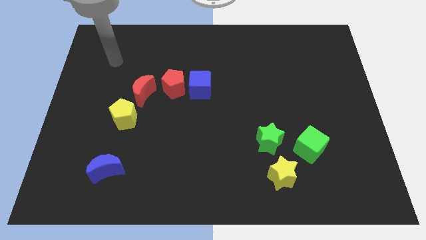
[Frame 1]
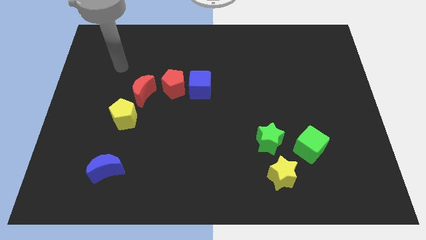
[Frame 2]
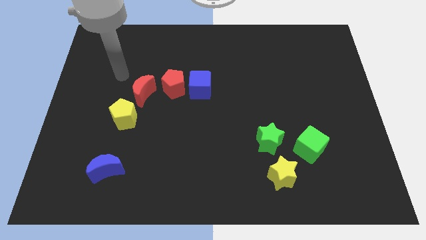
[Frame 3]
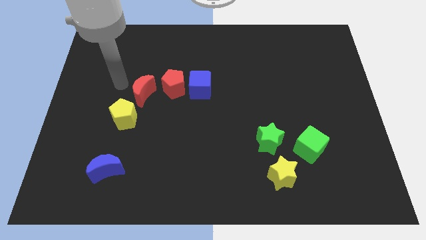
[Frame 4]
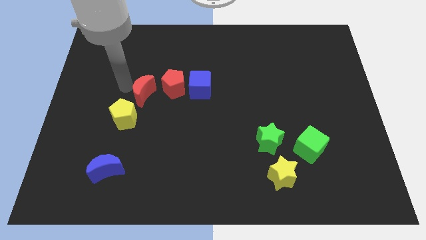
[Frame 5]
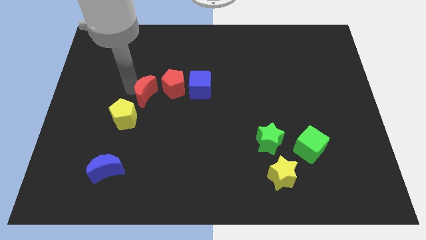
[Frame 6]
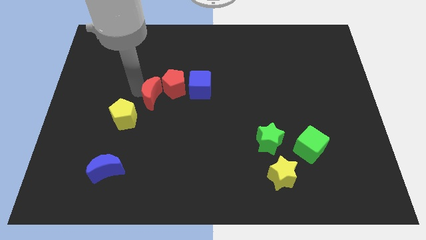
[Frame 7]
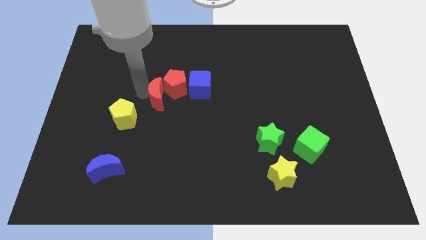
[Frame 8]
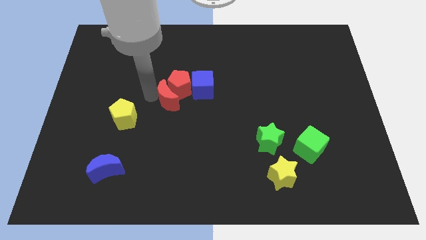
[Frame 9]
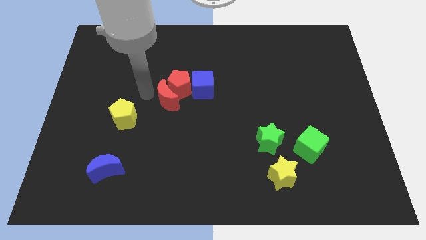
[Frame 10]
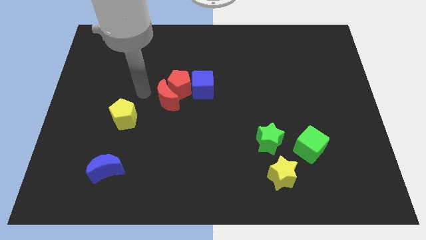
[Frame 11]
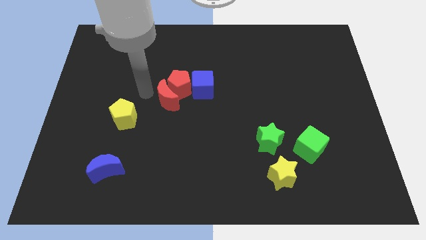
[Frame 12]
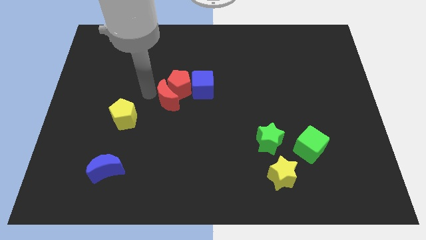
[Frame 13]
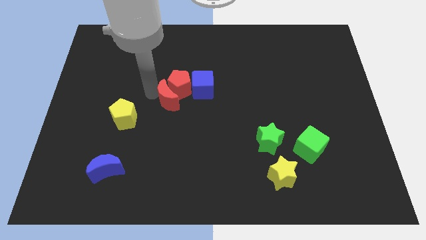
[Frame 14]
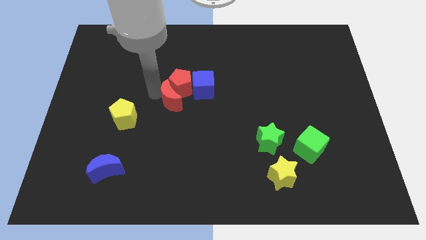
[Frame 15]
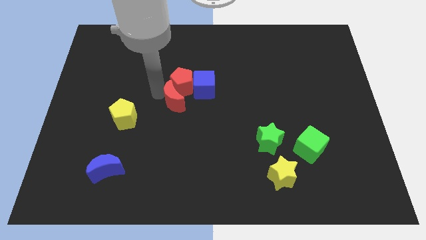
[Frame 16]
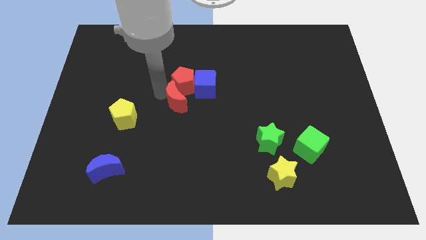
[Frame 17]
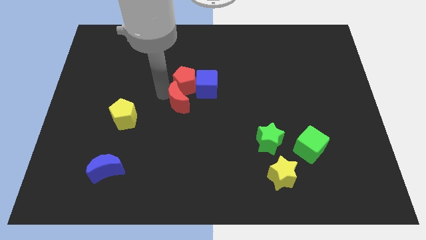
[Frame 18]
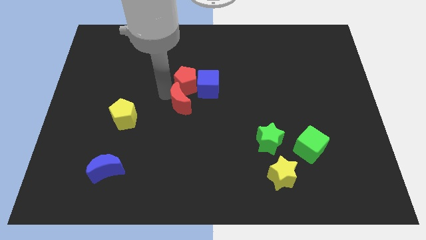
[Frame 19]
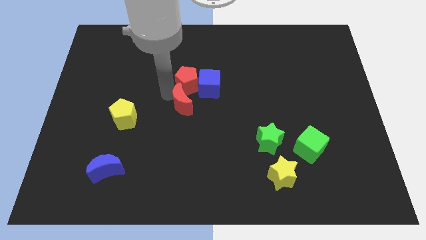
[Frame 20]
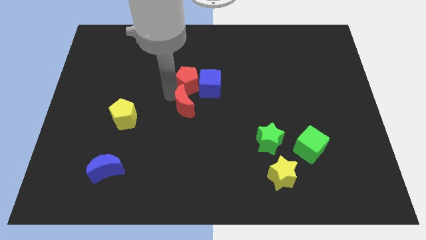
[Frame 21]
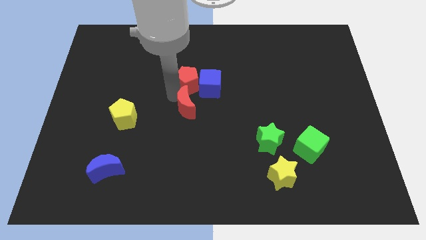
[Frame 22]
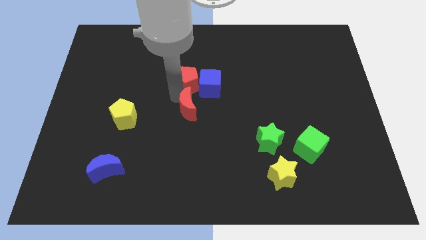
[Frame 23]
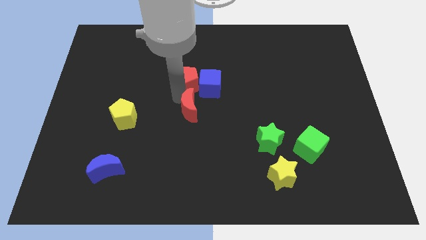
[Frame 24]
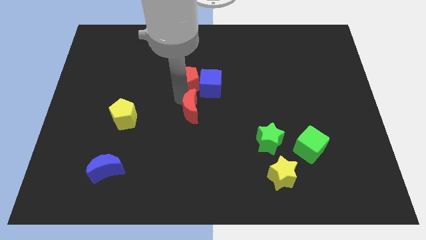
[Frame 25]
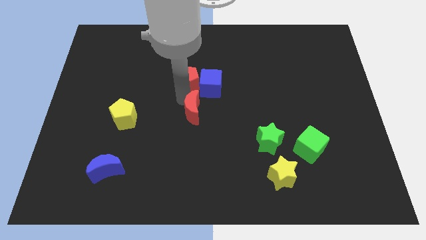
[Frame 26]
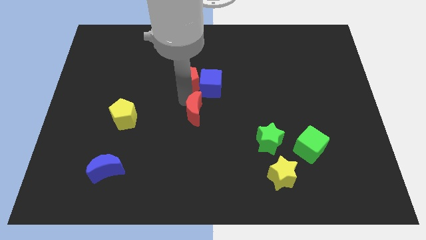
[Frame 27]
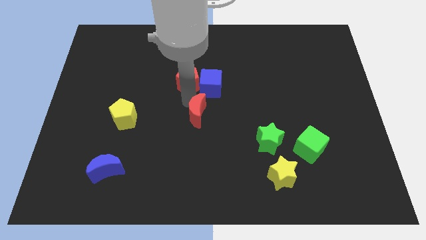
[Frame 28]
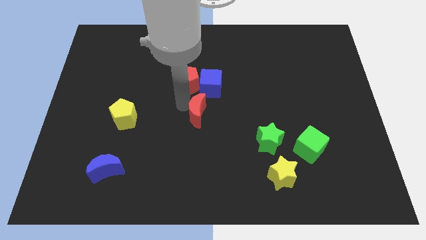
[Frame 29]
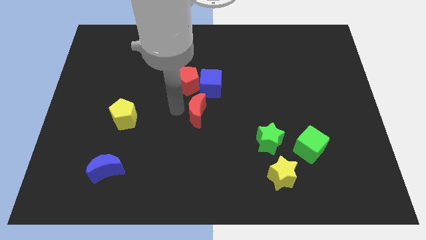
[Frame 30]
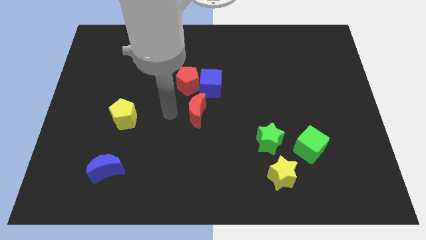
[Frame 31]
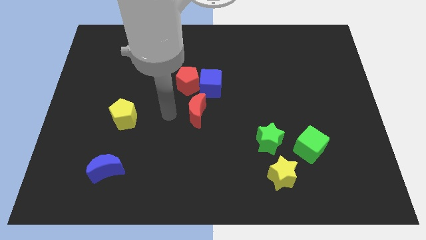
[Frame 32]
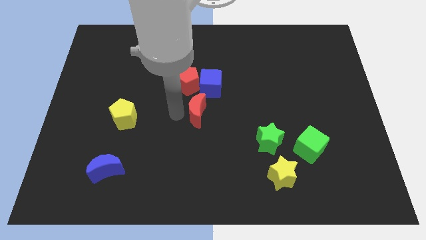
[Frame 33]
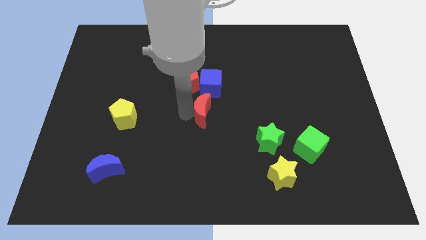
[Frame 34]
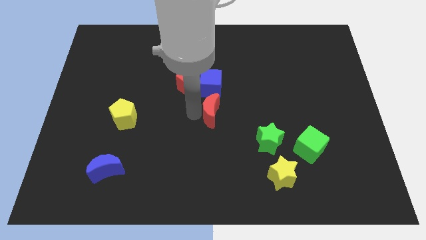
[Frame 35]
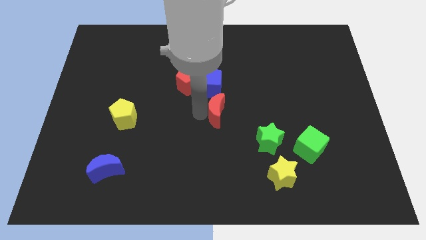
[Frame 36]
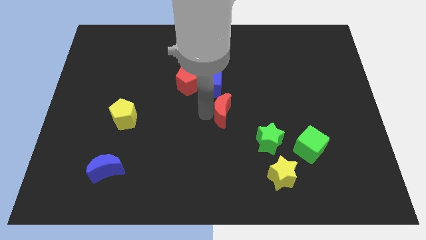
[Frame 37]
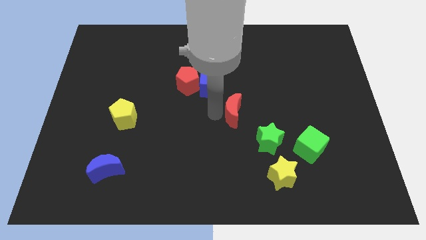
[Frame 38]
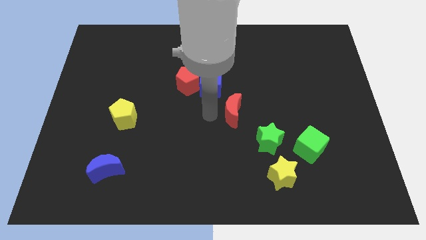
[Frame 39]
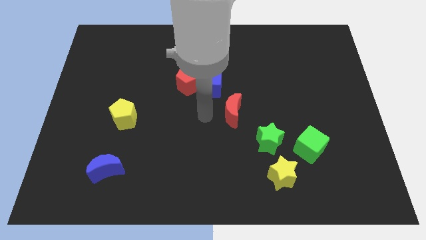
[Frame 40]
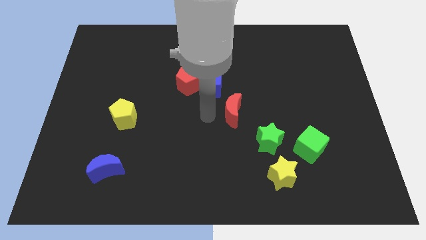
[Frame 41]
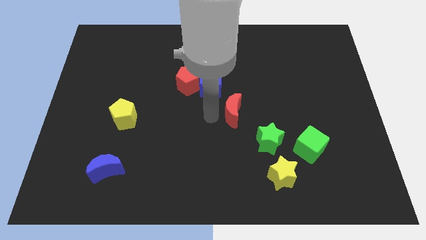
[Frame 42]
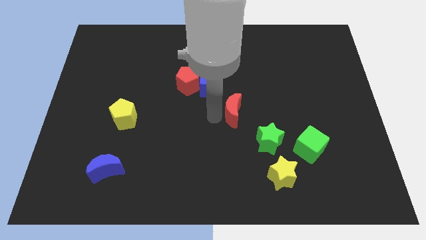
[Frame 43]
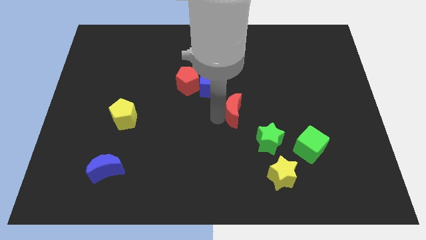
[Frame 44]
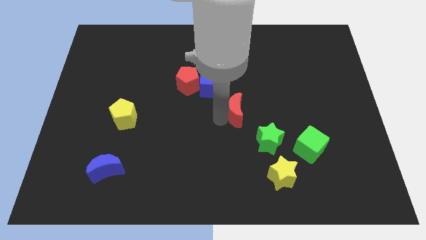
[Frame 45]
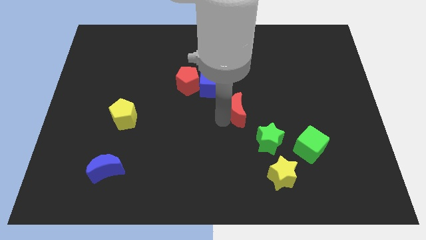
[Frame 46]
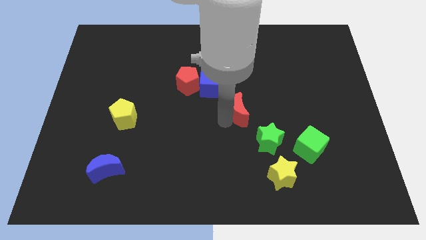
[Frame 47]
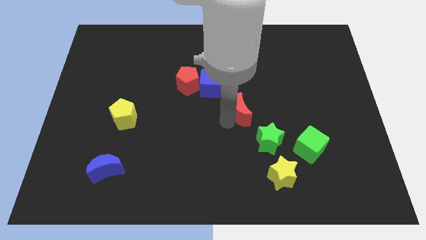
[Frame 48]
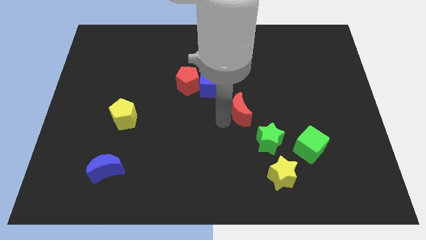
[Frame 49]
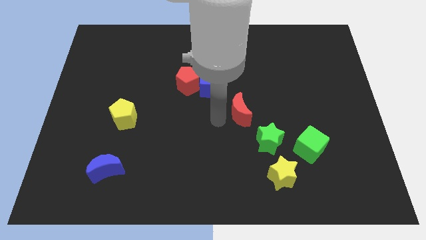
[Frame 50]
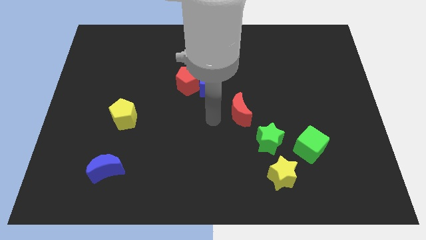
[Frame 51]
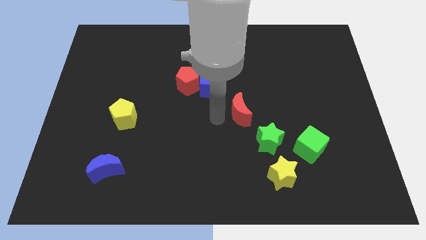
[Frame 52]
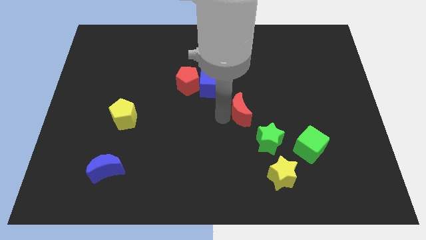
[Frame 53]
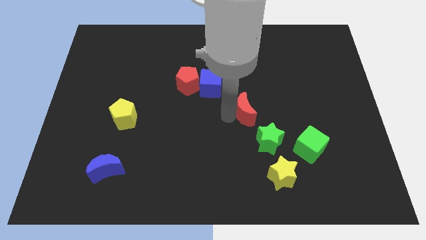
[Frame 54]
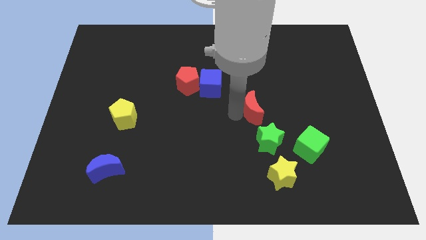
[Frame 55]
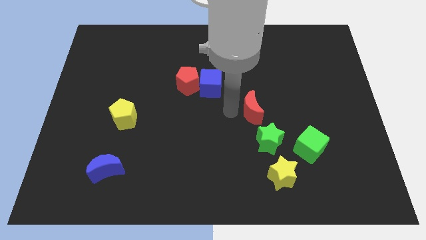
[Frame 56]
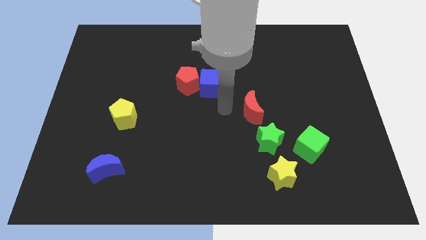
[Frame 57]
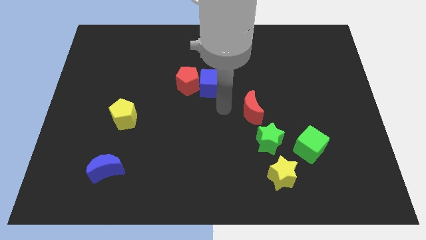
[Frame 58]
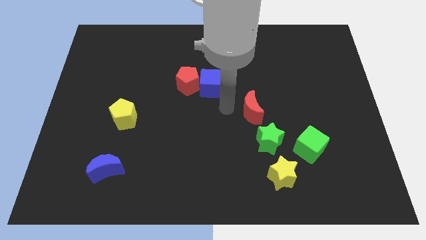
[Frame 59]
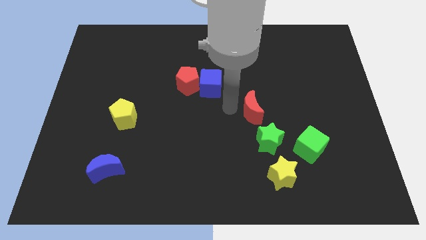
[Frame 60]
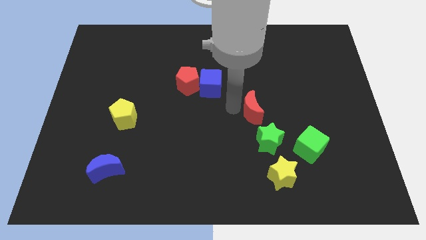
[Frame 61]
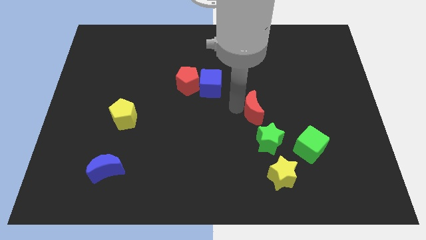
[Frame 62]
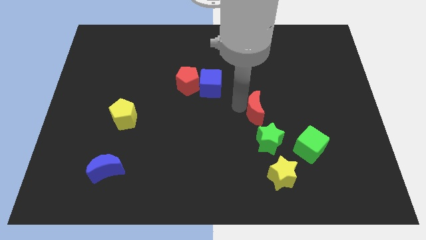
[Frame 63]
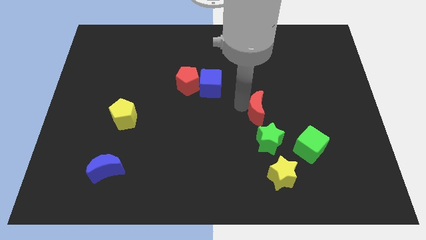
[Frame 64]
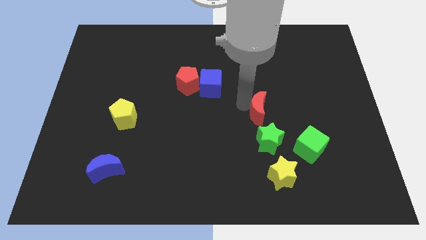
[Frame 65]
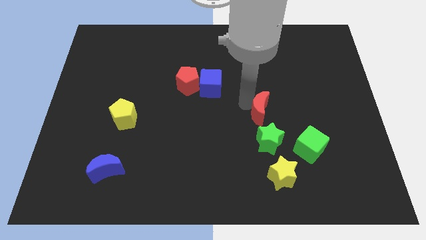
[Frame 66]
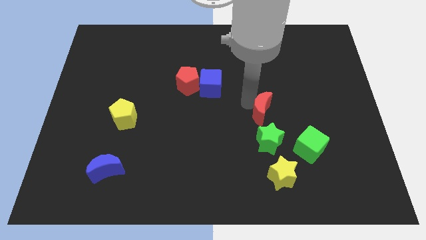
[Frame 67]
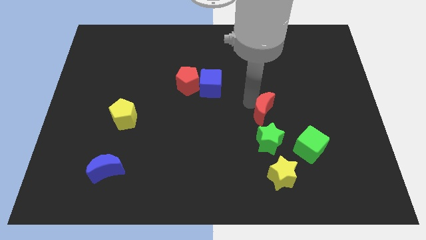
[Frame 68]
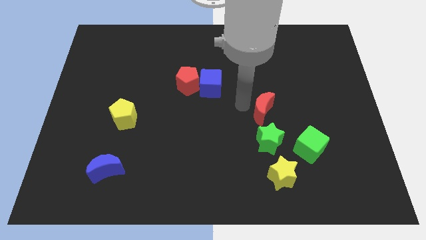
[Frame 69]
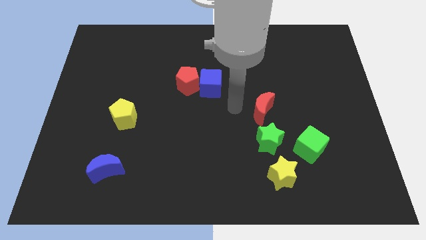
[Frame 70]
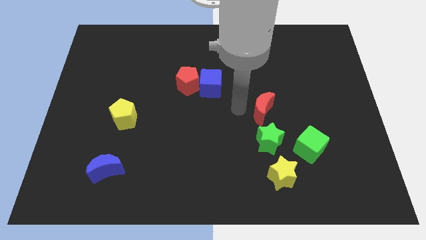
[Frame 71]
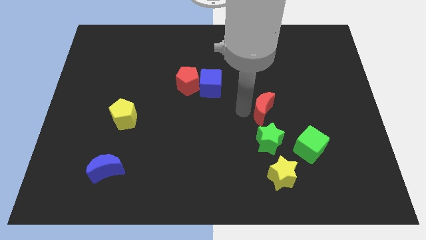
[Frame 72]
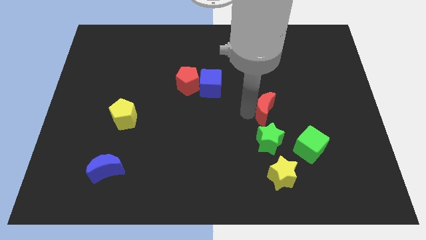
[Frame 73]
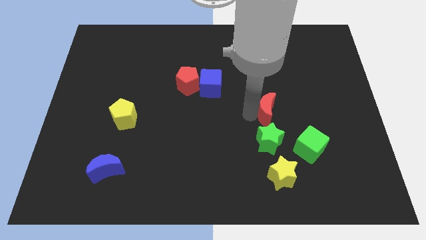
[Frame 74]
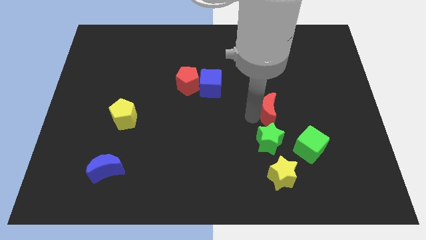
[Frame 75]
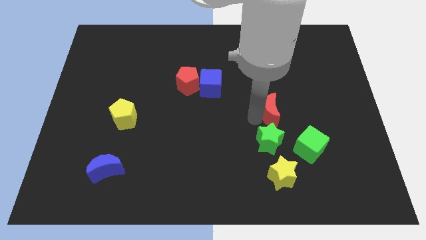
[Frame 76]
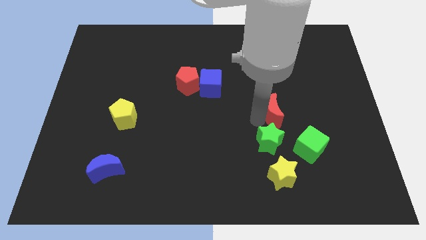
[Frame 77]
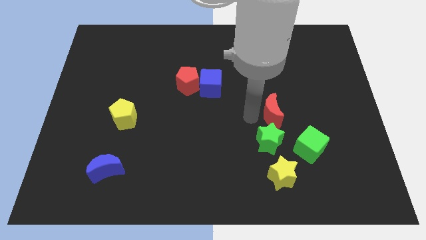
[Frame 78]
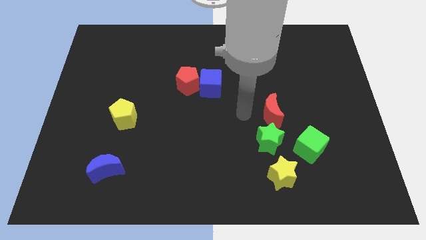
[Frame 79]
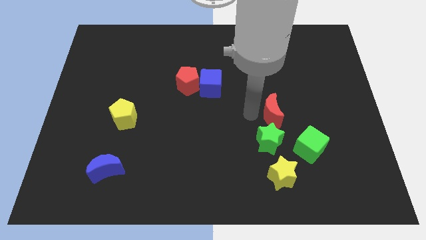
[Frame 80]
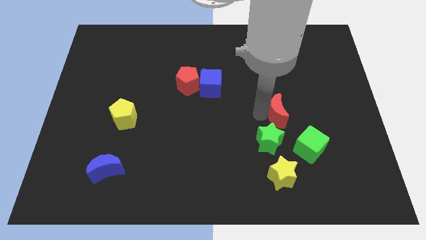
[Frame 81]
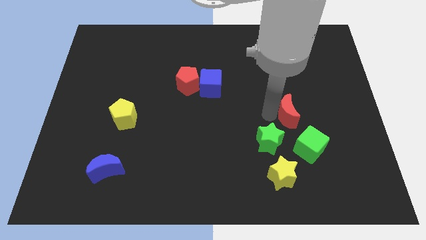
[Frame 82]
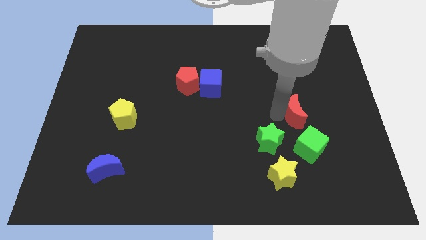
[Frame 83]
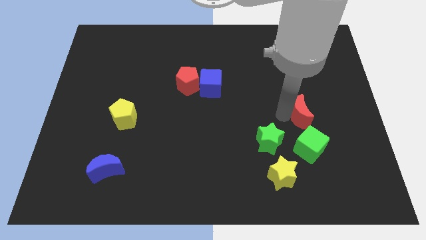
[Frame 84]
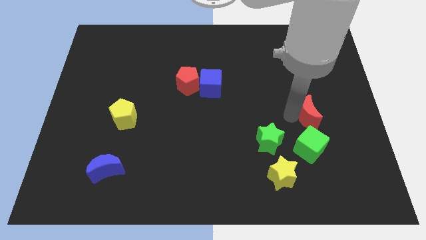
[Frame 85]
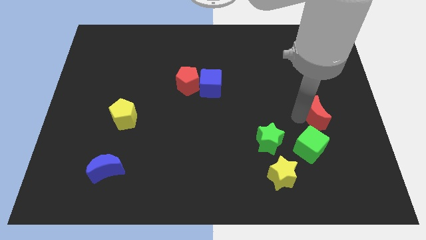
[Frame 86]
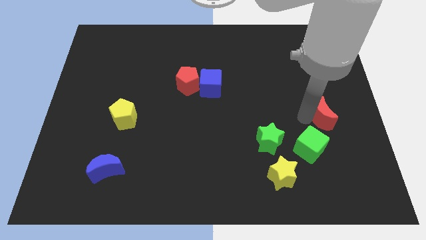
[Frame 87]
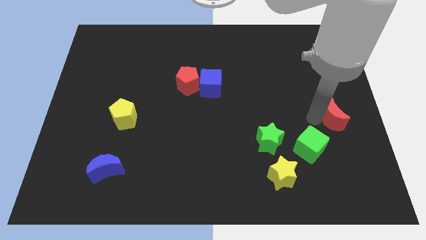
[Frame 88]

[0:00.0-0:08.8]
push the red moon to the center right
